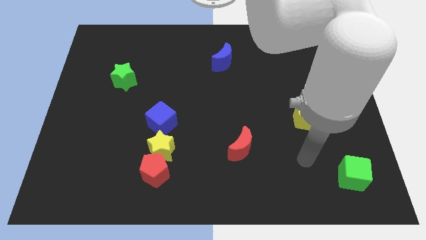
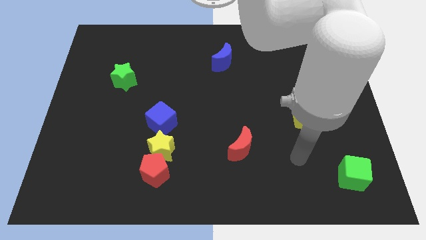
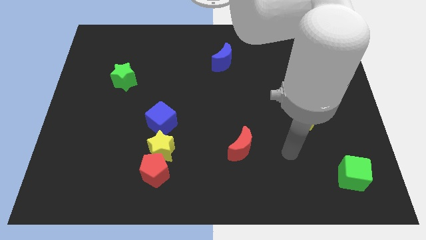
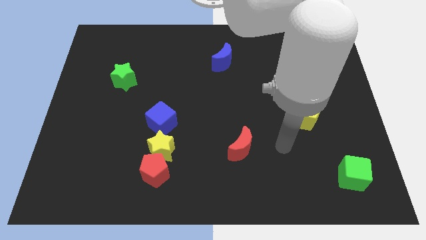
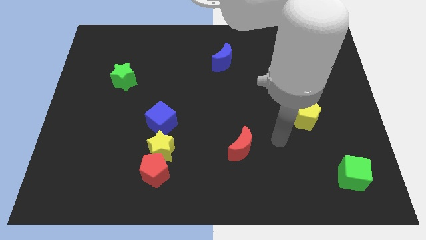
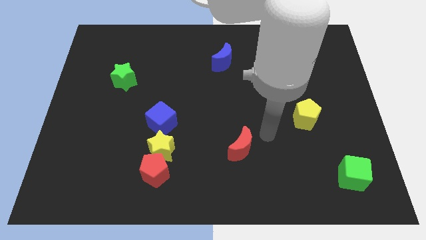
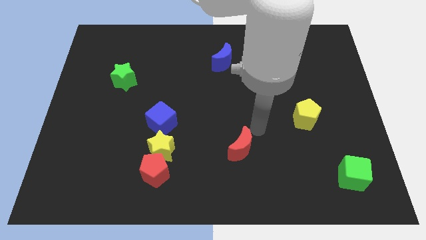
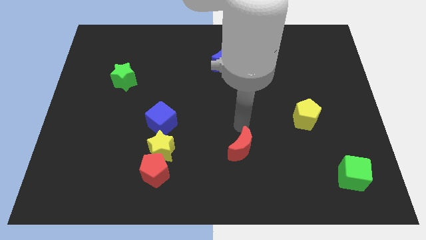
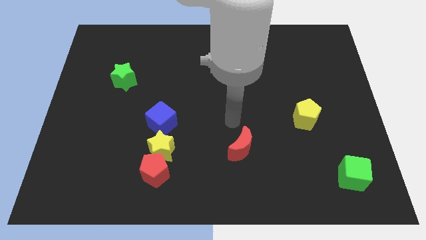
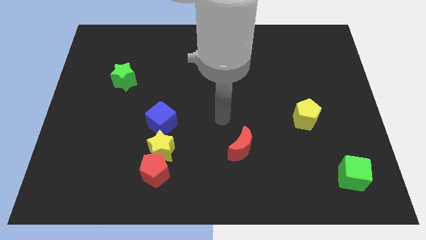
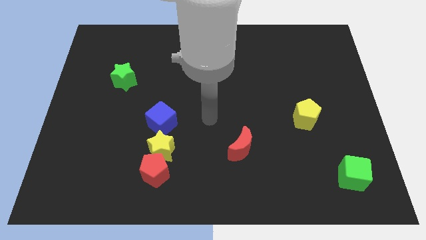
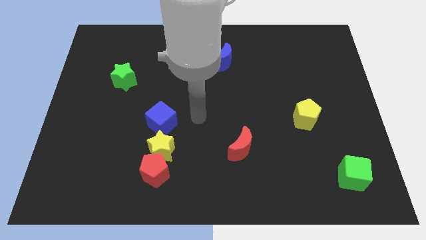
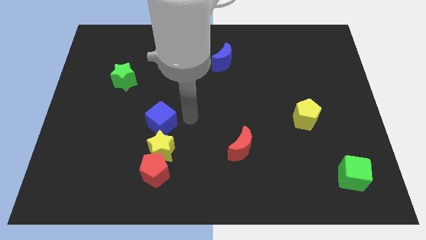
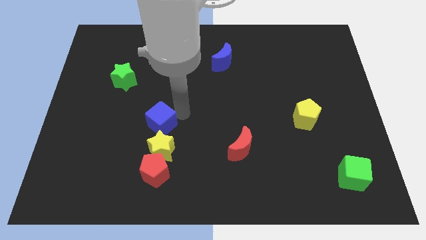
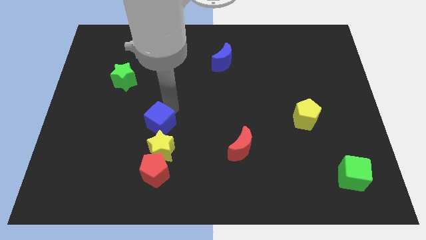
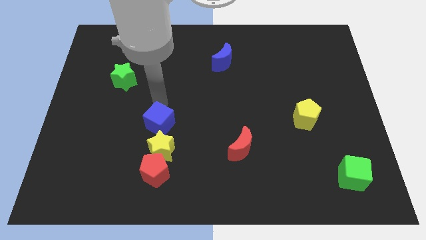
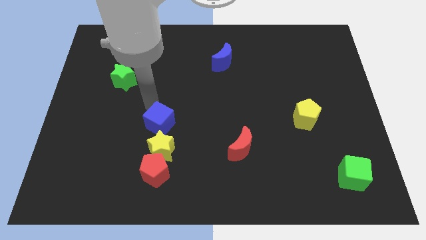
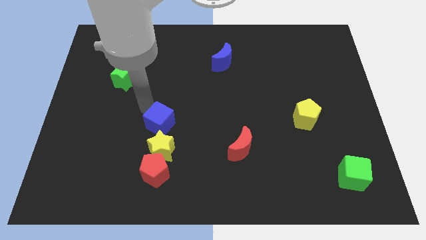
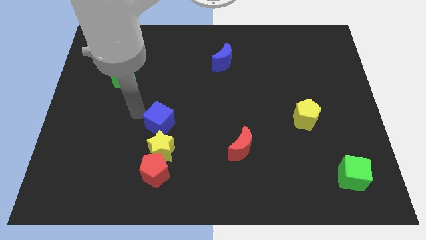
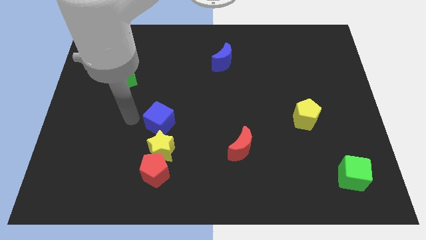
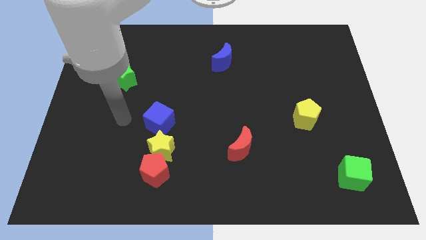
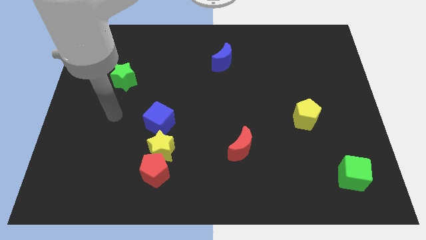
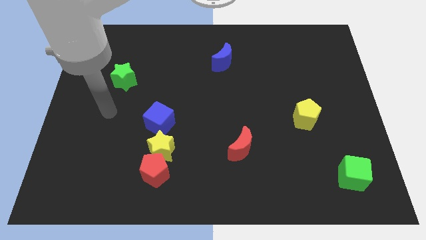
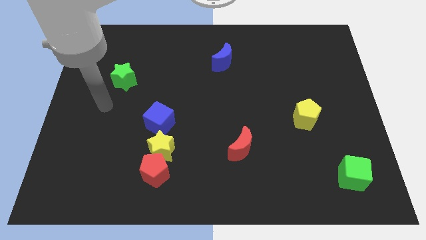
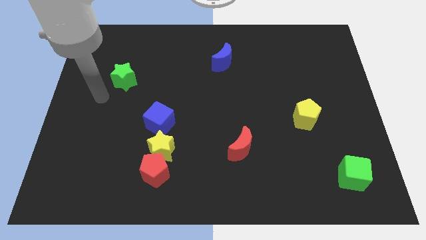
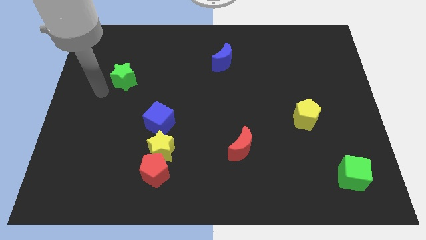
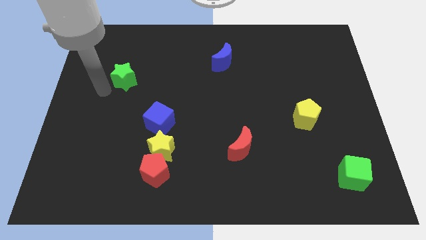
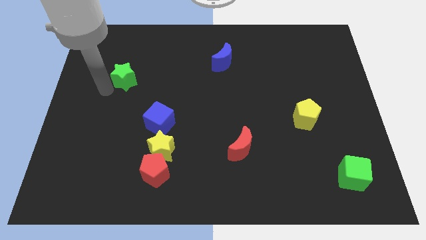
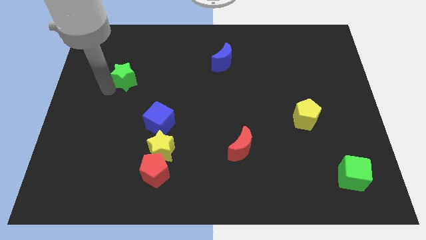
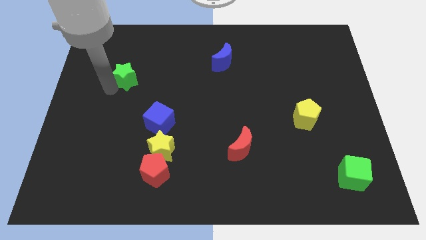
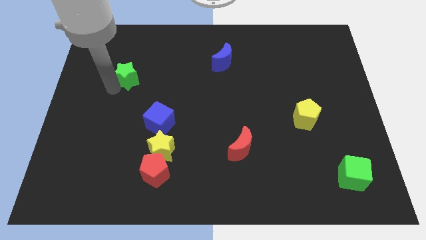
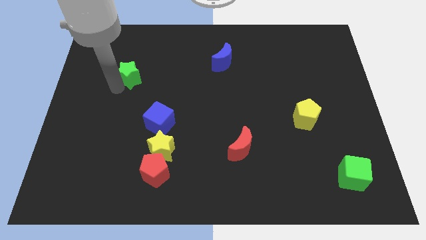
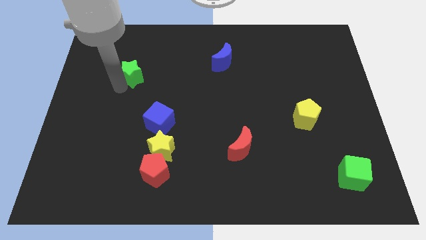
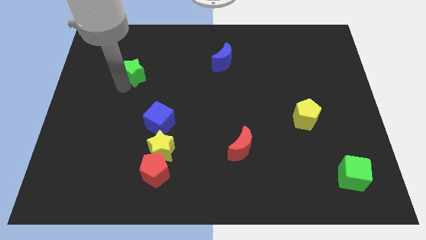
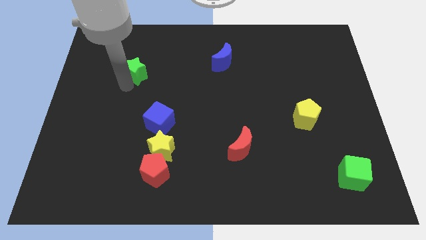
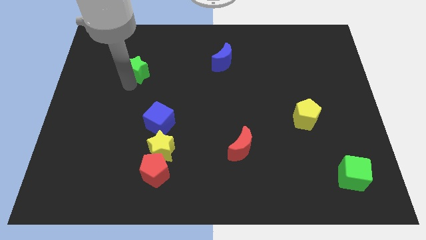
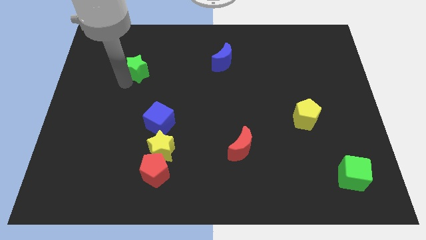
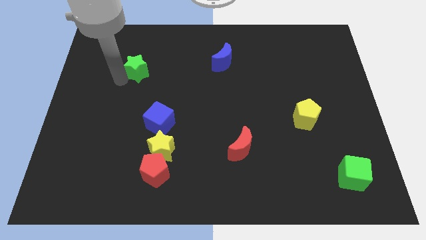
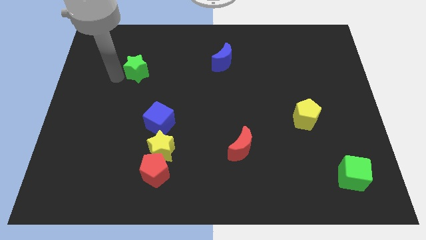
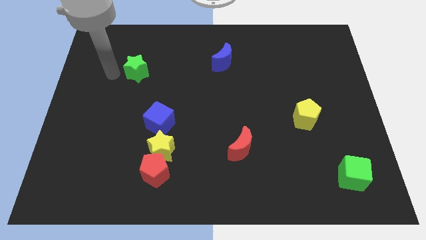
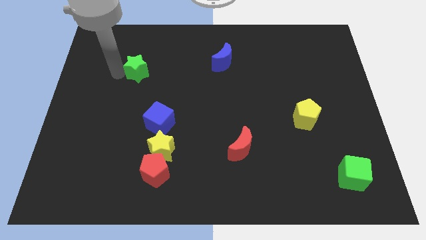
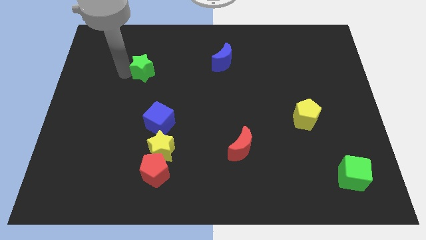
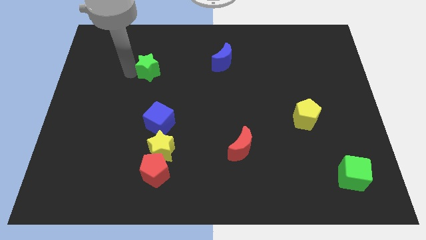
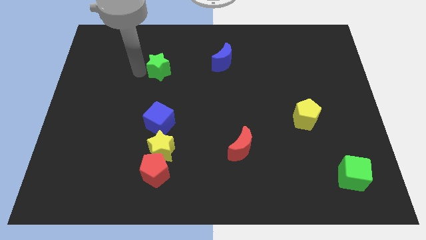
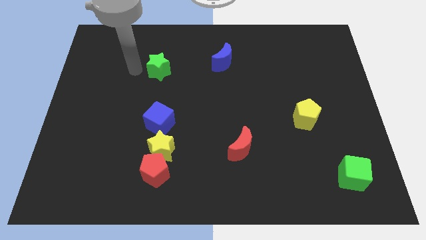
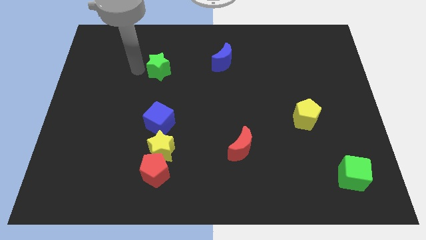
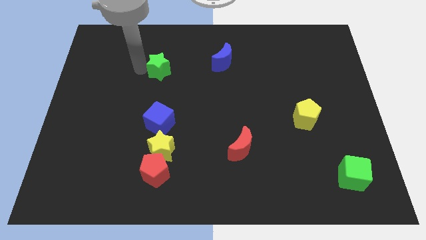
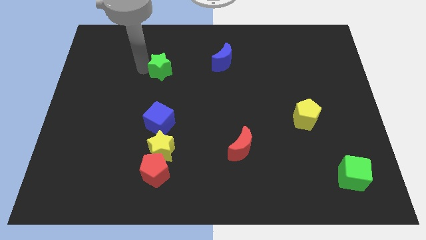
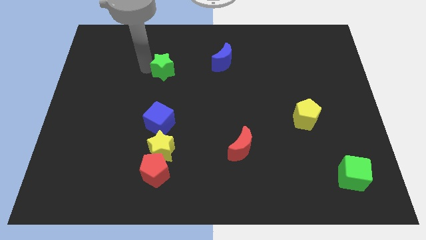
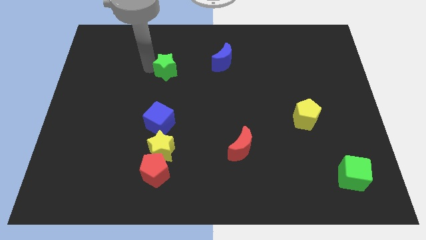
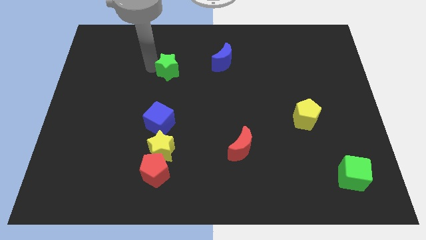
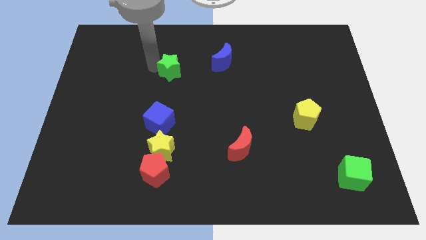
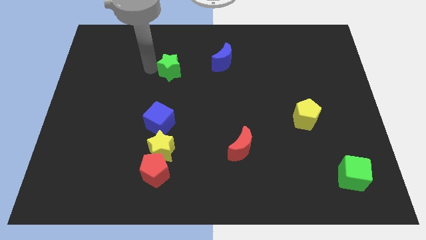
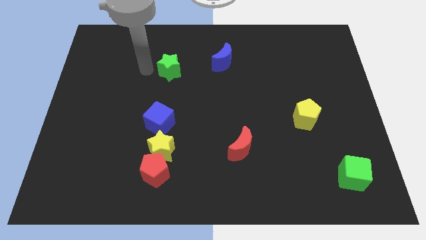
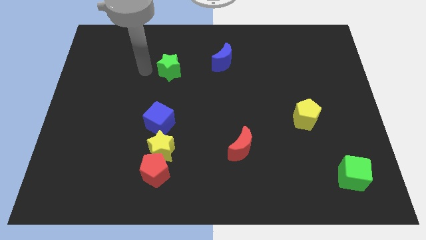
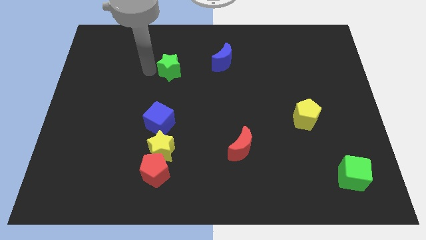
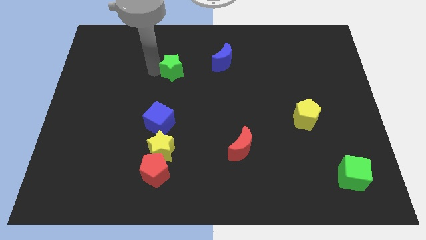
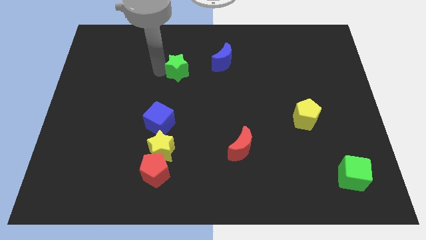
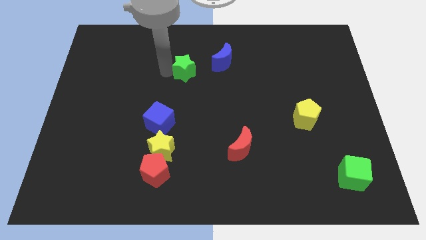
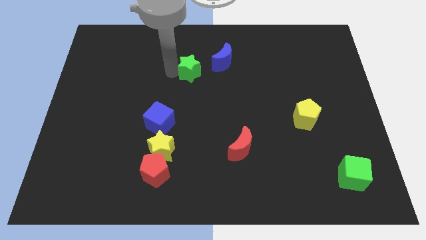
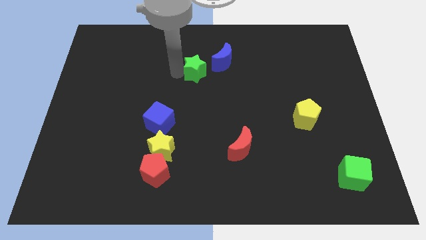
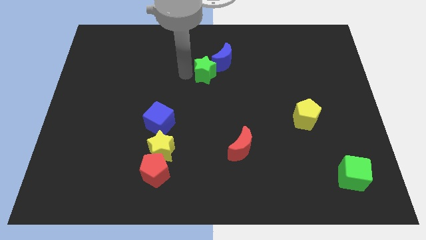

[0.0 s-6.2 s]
move the green star close to the blue moon

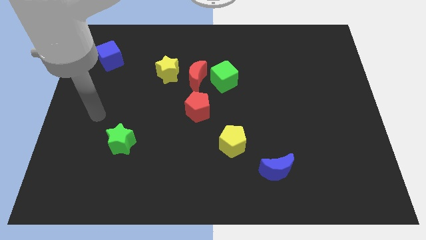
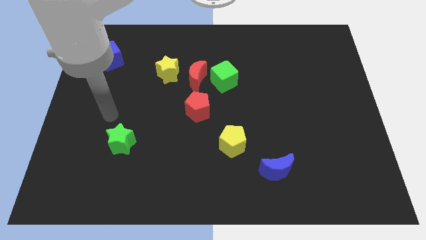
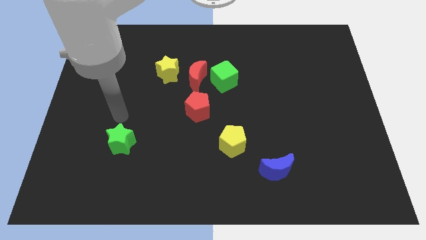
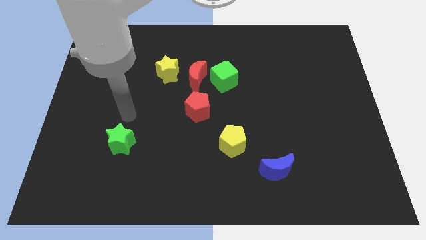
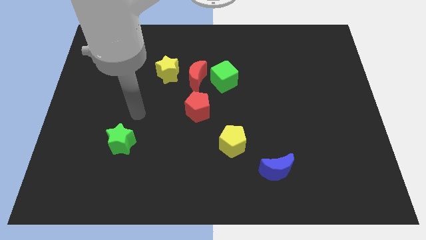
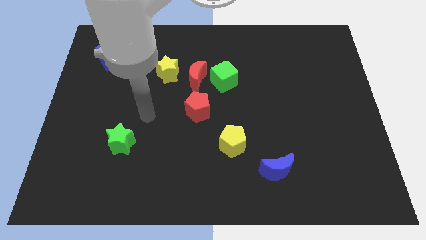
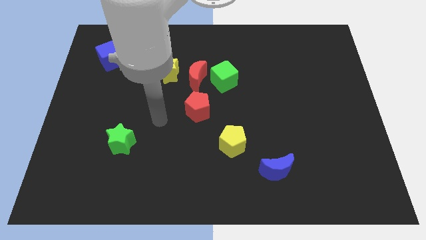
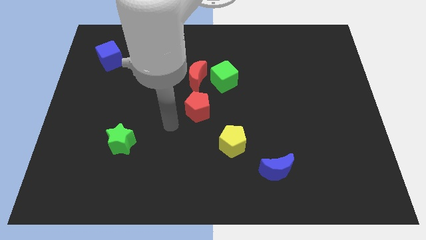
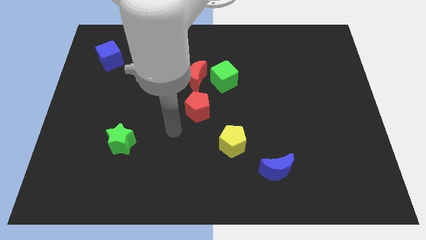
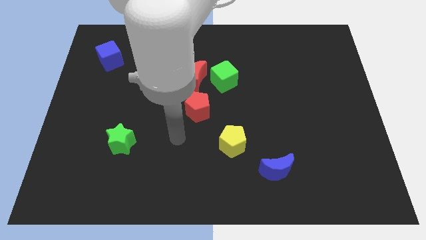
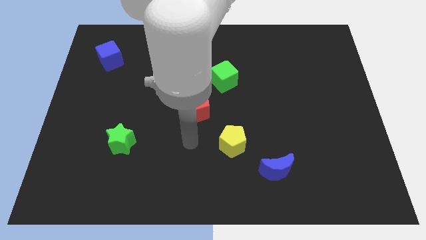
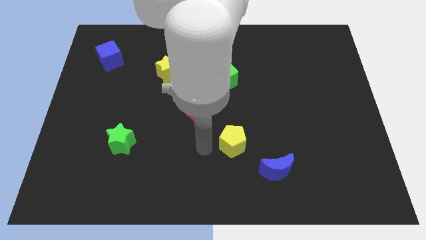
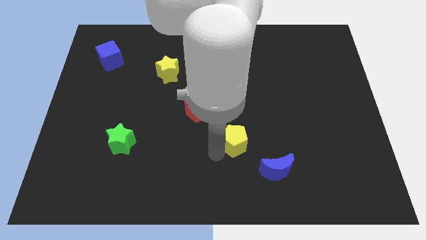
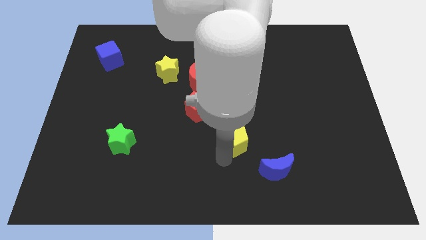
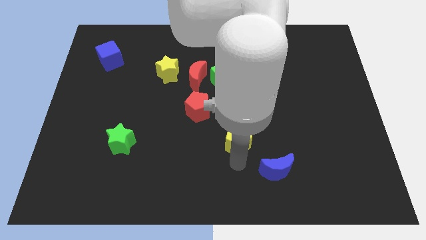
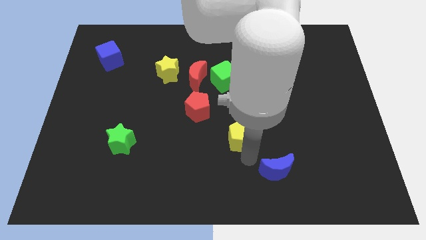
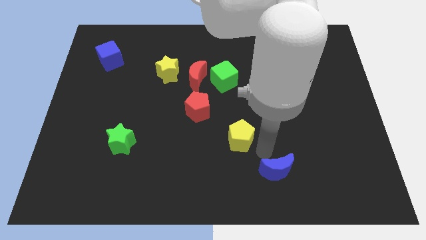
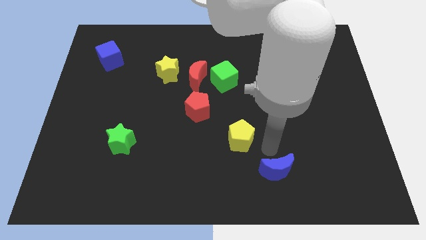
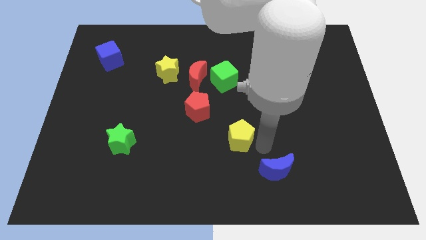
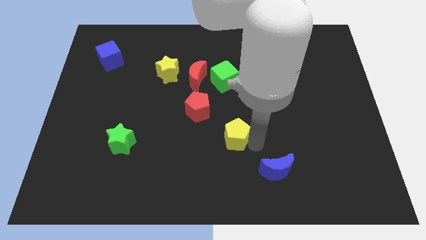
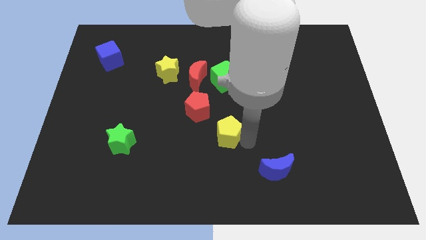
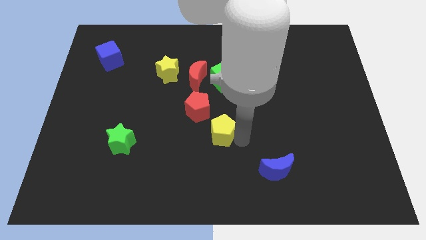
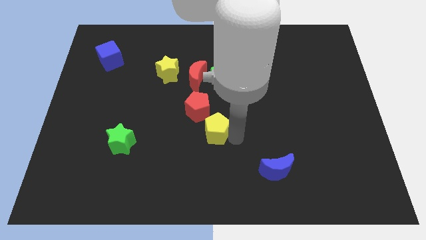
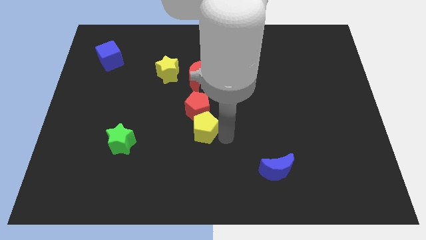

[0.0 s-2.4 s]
slide the yellow pentagon close to the red pentagon
